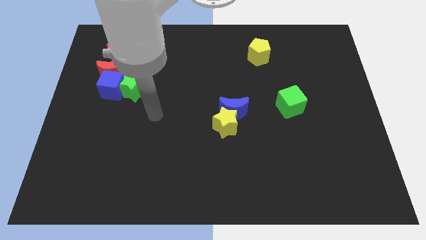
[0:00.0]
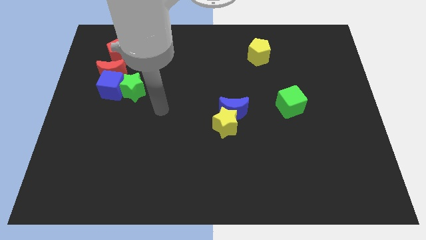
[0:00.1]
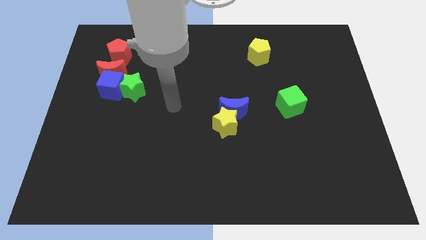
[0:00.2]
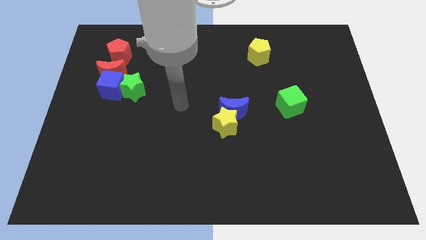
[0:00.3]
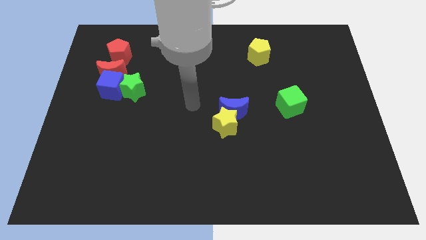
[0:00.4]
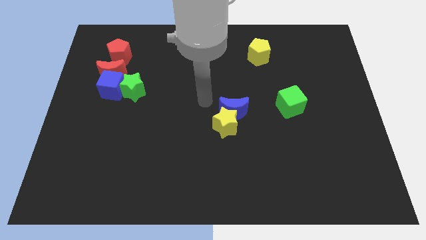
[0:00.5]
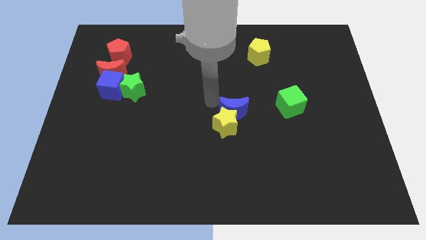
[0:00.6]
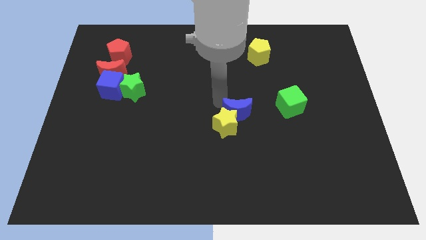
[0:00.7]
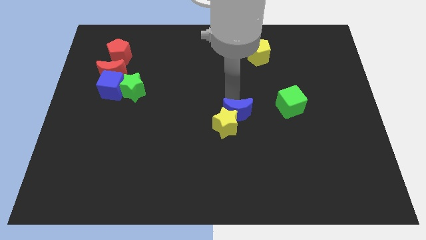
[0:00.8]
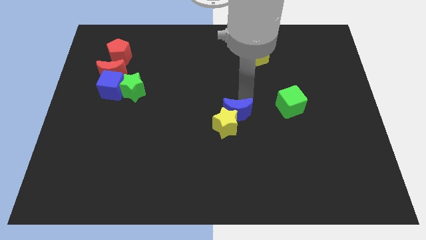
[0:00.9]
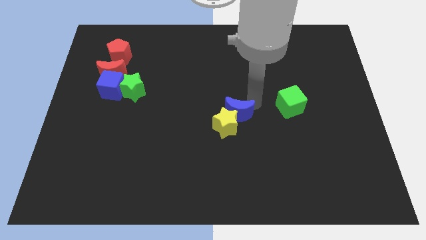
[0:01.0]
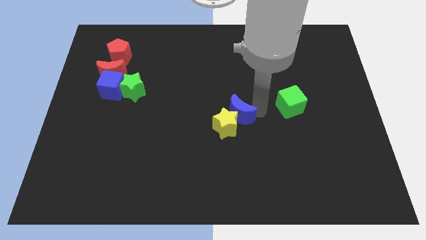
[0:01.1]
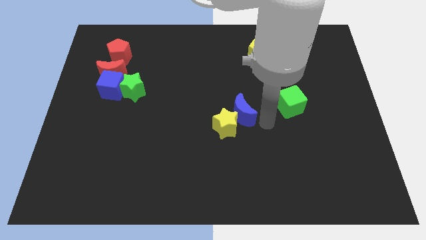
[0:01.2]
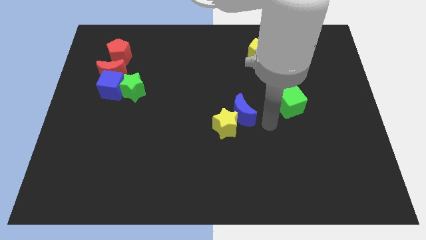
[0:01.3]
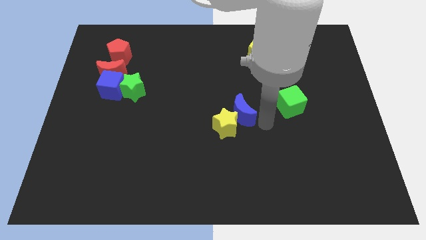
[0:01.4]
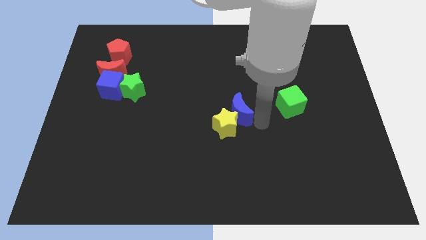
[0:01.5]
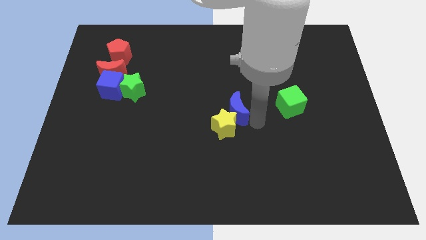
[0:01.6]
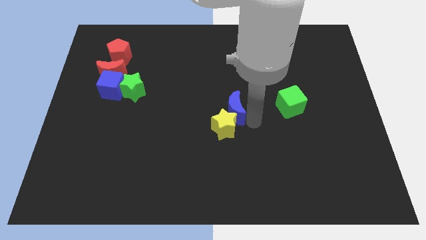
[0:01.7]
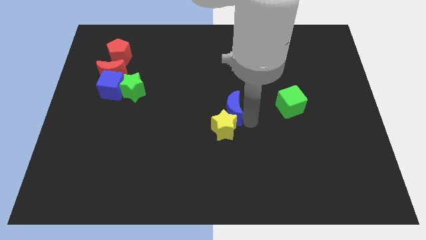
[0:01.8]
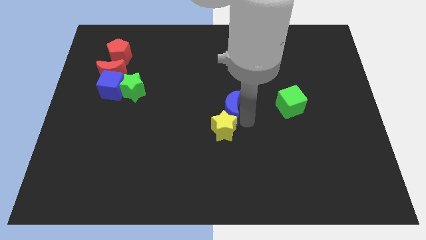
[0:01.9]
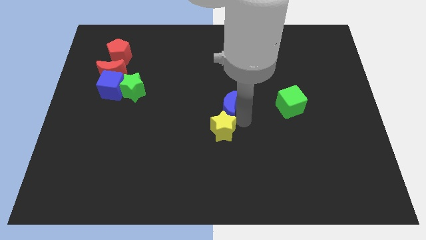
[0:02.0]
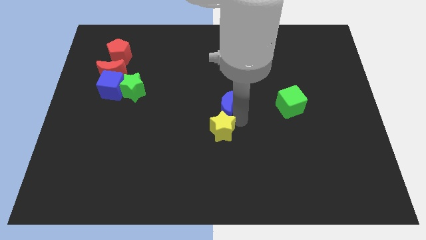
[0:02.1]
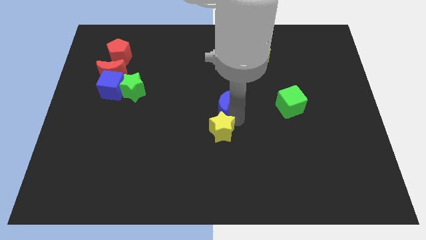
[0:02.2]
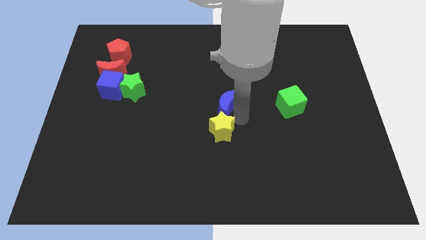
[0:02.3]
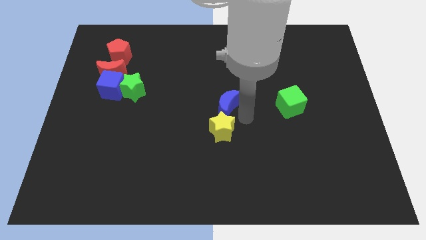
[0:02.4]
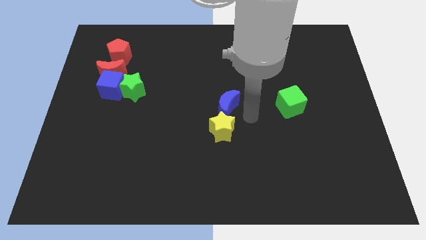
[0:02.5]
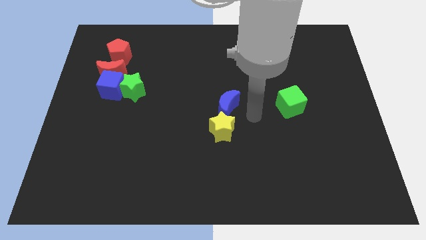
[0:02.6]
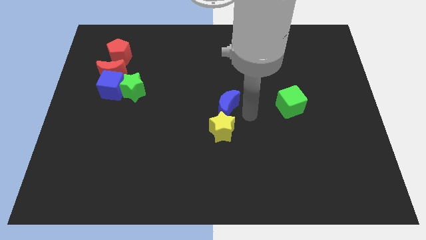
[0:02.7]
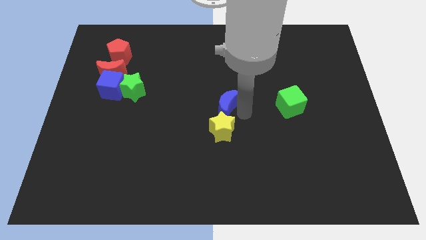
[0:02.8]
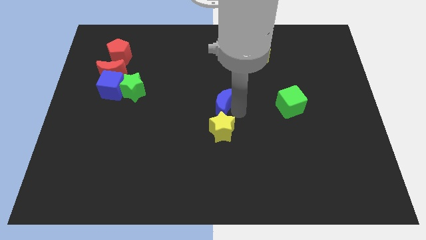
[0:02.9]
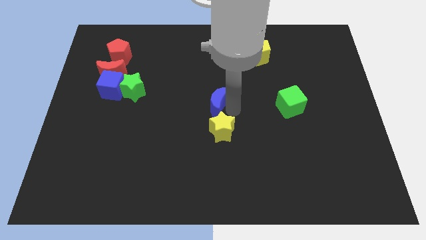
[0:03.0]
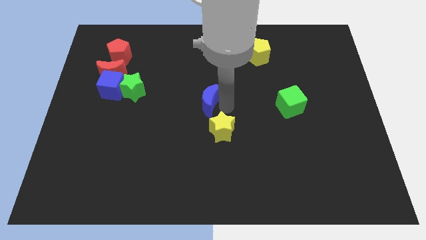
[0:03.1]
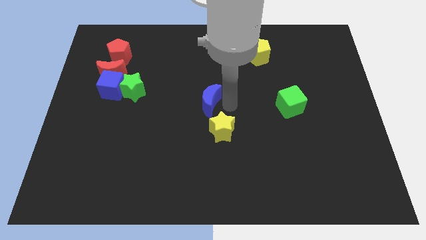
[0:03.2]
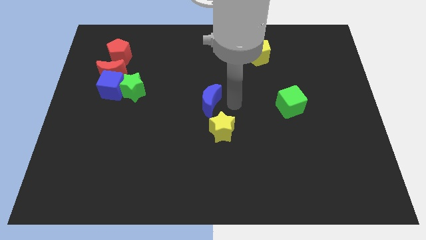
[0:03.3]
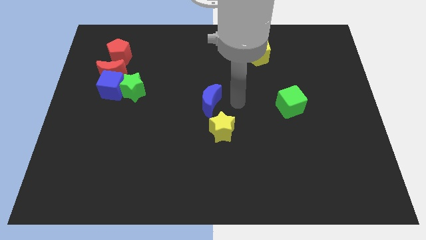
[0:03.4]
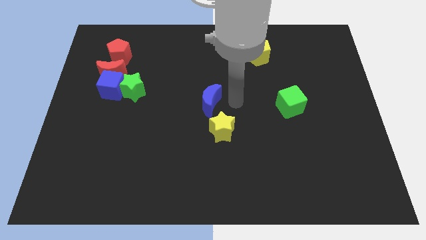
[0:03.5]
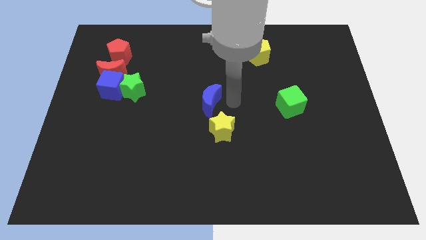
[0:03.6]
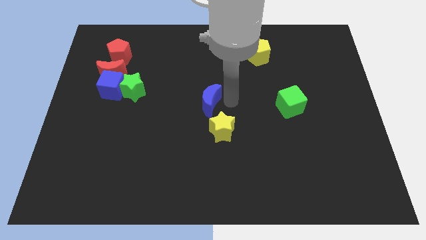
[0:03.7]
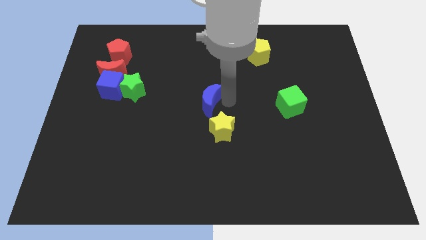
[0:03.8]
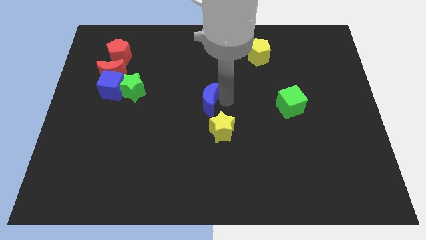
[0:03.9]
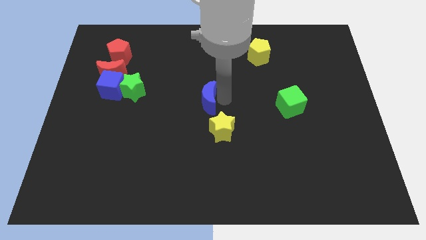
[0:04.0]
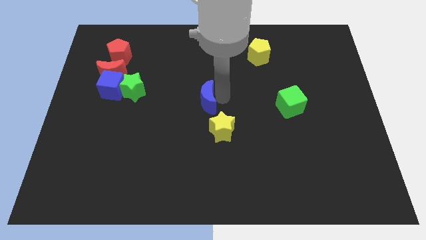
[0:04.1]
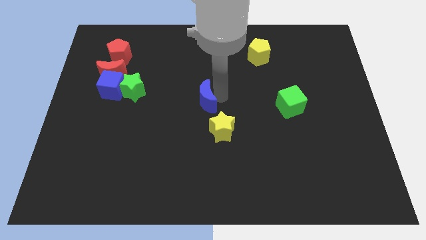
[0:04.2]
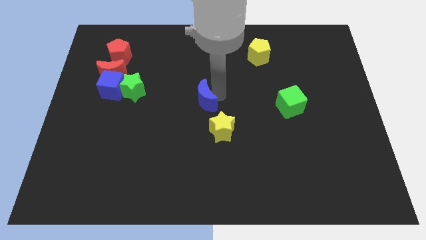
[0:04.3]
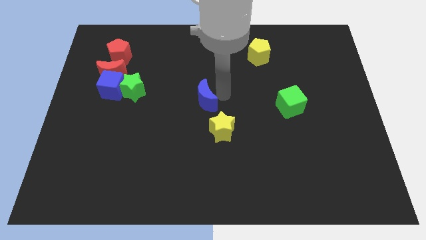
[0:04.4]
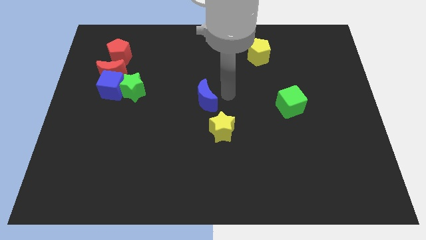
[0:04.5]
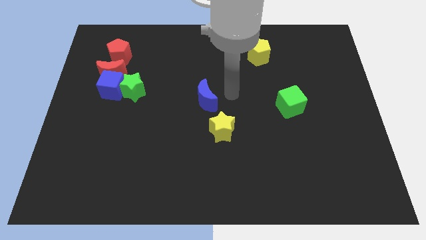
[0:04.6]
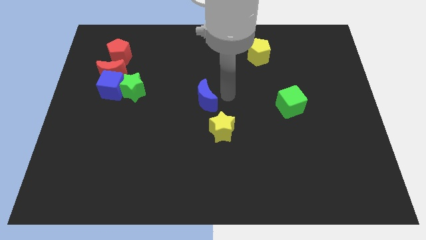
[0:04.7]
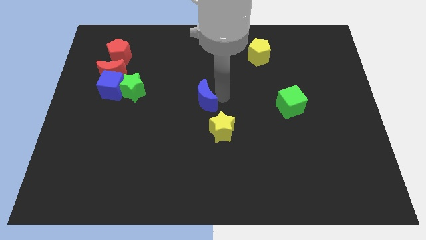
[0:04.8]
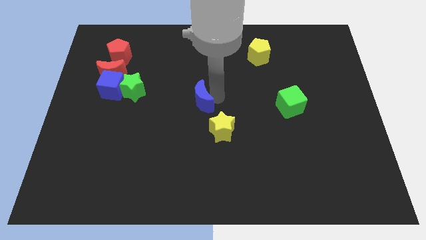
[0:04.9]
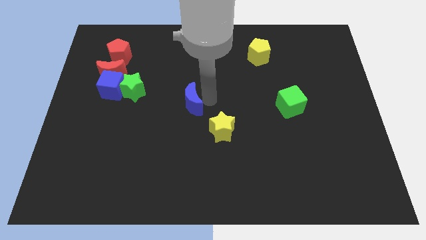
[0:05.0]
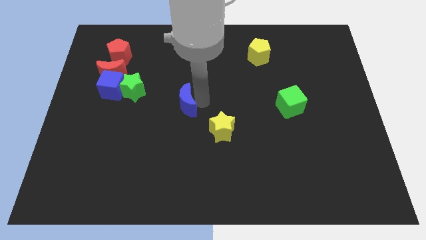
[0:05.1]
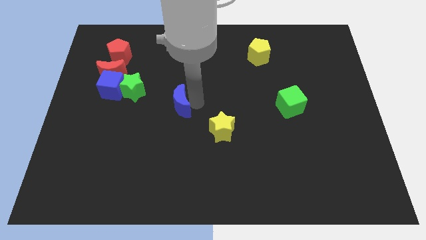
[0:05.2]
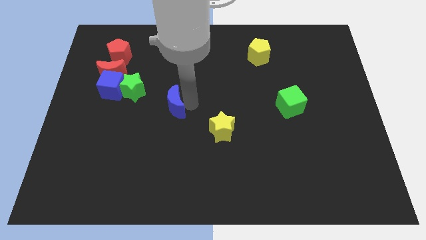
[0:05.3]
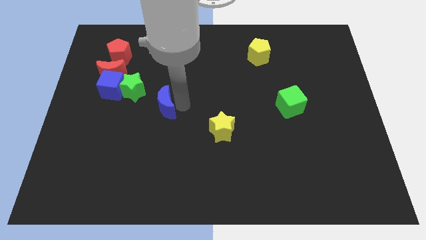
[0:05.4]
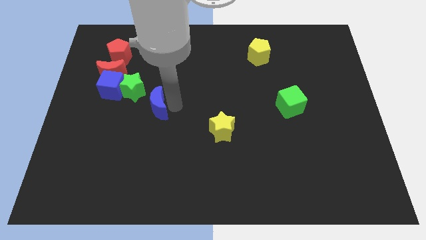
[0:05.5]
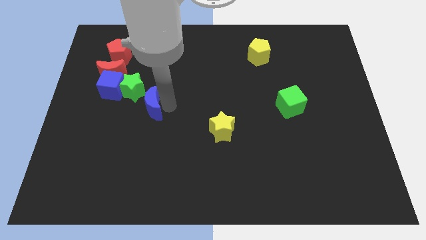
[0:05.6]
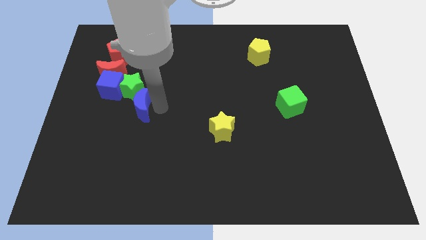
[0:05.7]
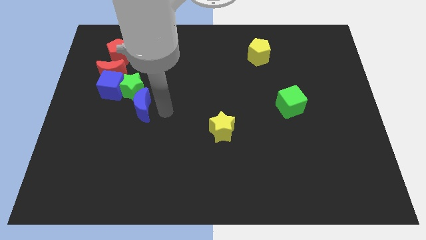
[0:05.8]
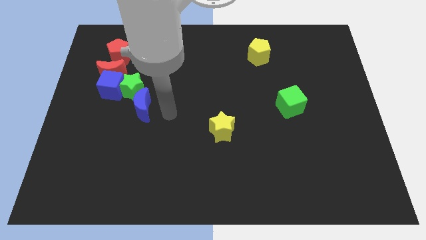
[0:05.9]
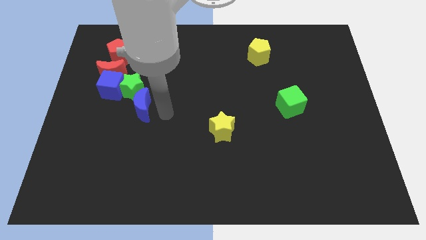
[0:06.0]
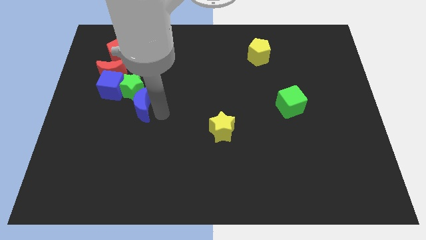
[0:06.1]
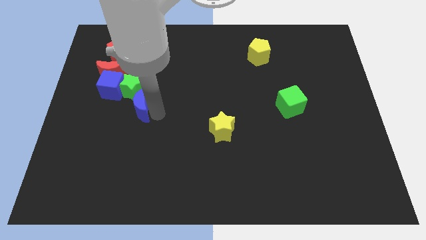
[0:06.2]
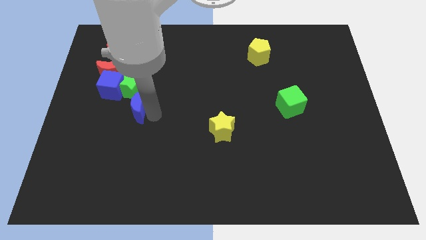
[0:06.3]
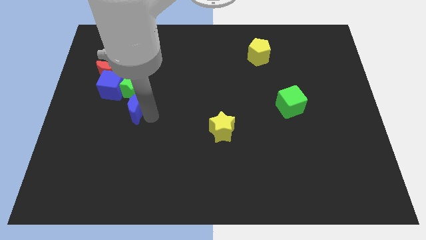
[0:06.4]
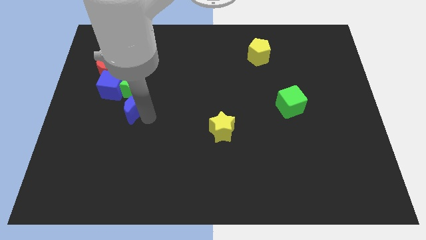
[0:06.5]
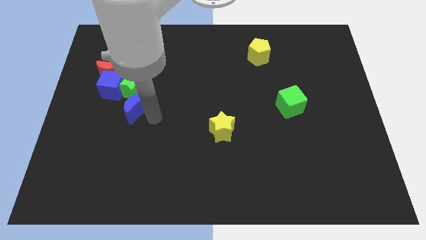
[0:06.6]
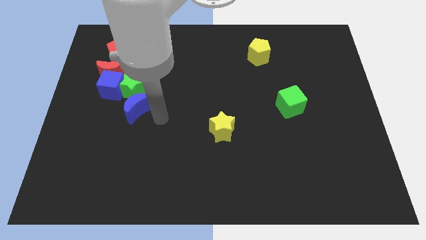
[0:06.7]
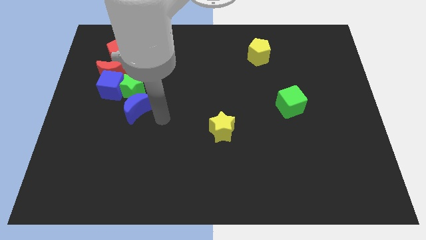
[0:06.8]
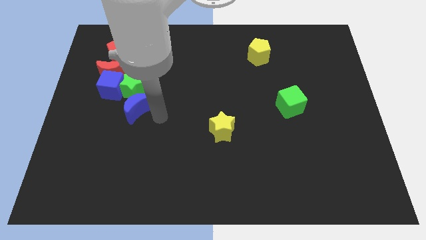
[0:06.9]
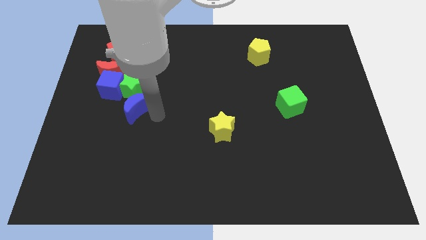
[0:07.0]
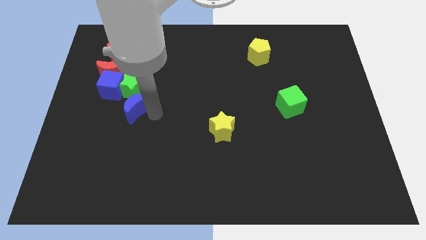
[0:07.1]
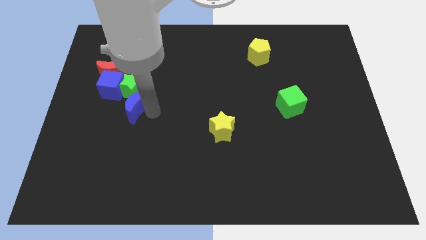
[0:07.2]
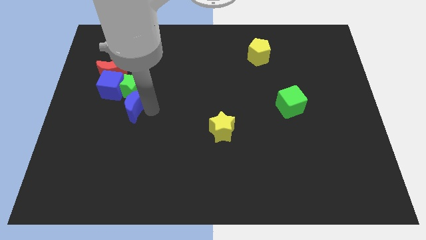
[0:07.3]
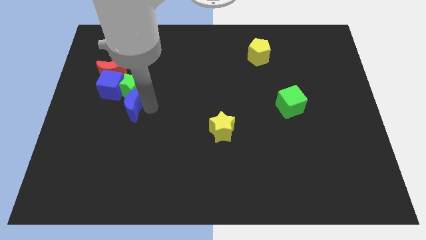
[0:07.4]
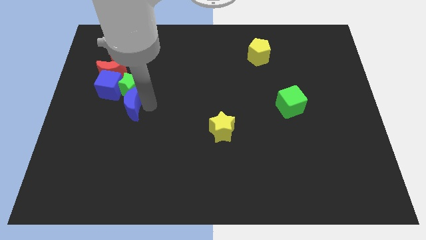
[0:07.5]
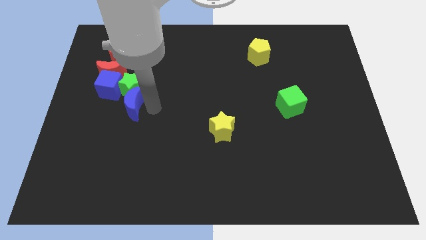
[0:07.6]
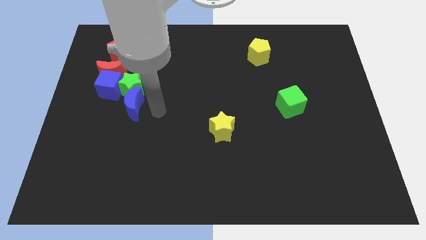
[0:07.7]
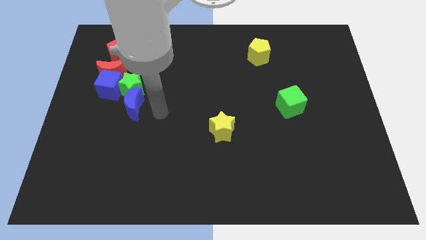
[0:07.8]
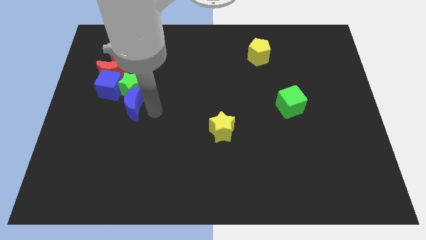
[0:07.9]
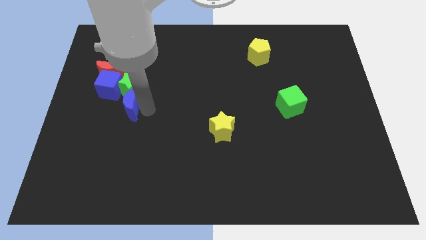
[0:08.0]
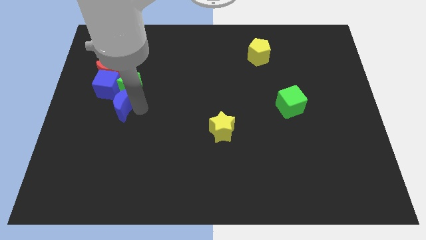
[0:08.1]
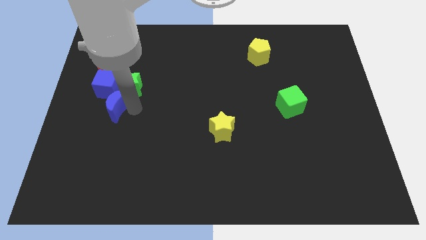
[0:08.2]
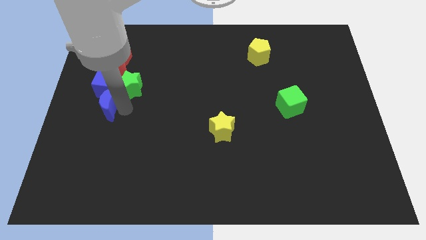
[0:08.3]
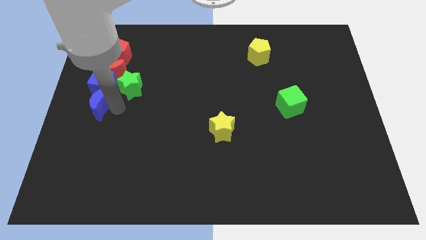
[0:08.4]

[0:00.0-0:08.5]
push the blue moon to the center left
